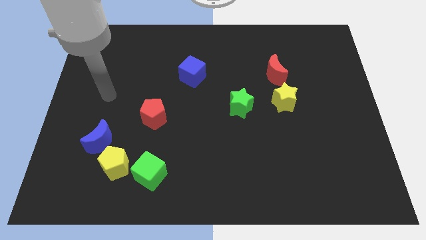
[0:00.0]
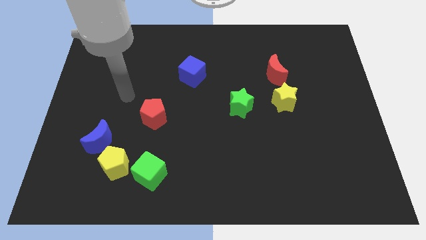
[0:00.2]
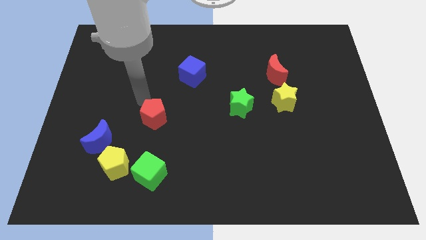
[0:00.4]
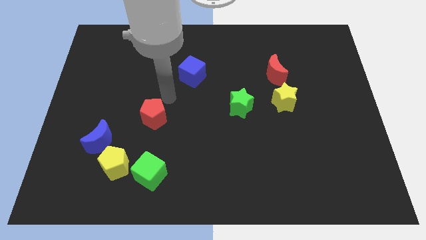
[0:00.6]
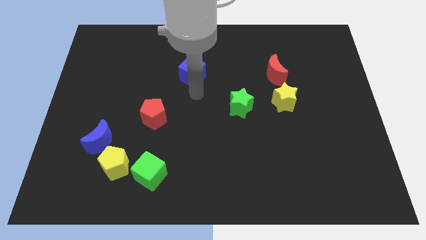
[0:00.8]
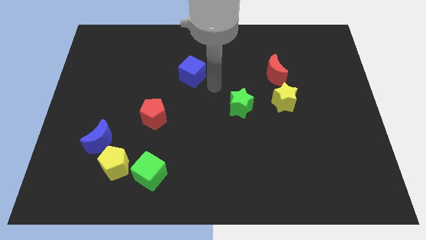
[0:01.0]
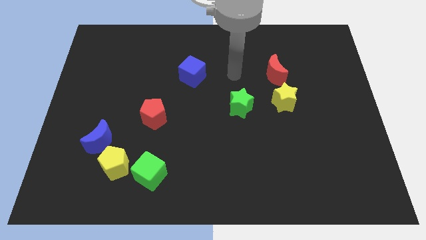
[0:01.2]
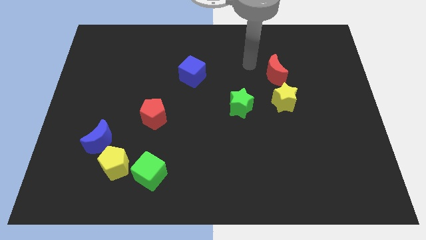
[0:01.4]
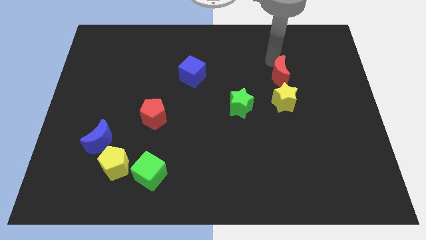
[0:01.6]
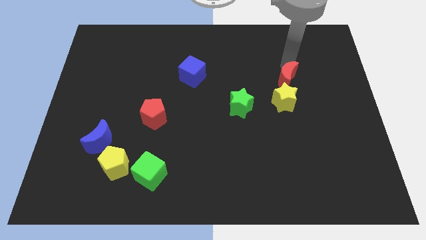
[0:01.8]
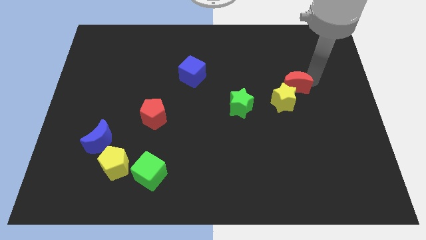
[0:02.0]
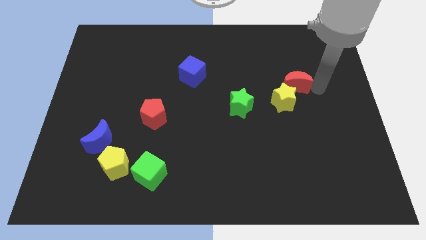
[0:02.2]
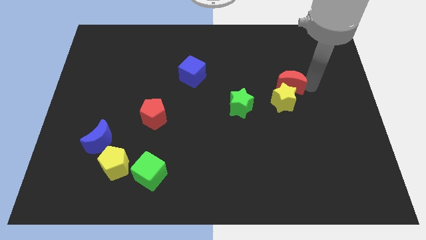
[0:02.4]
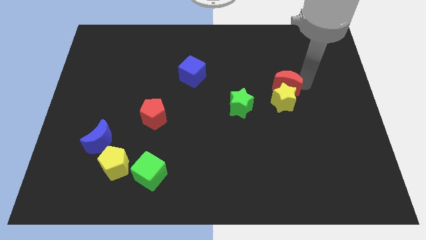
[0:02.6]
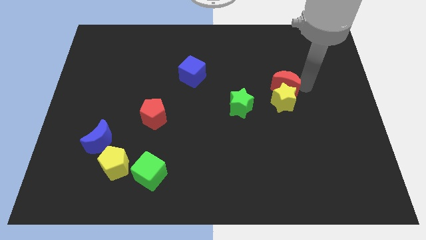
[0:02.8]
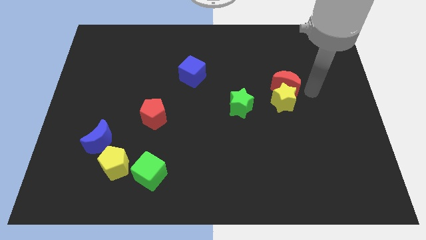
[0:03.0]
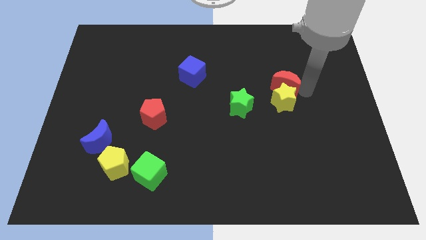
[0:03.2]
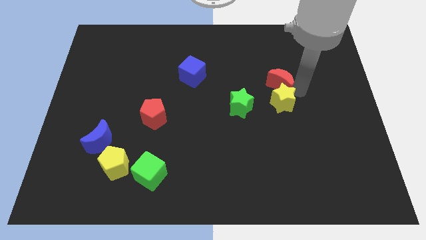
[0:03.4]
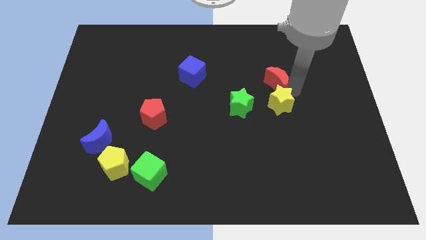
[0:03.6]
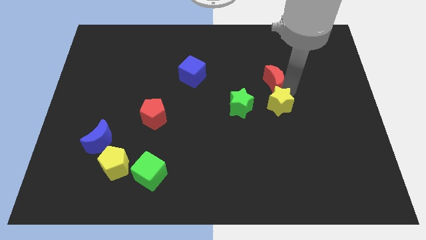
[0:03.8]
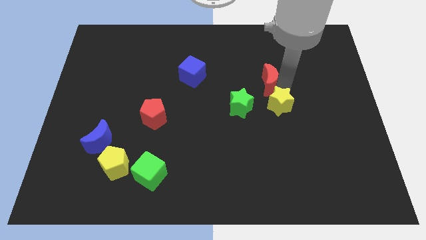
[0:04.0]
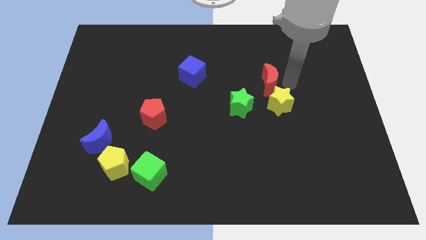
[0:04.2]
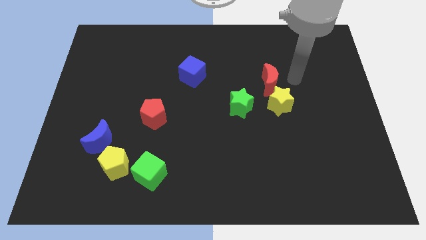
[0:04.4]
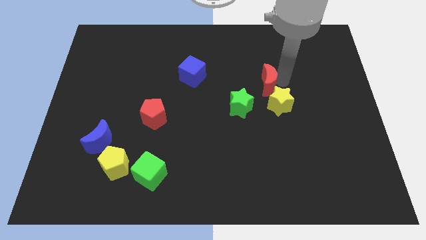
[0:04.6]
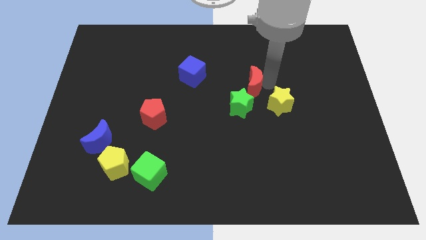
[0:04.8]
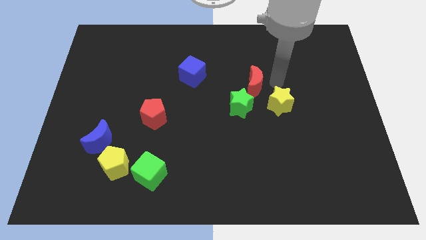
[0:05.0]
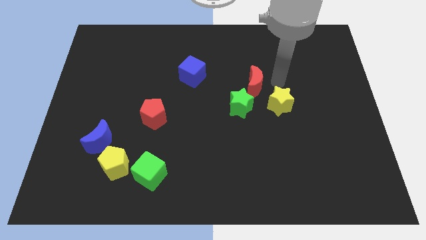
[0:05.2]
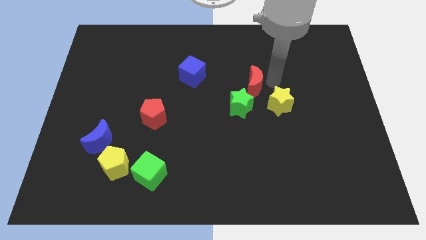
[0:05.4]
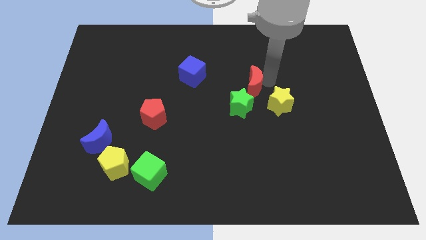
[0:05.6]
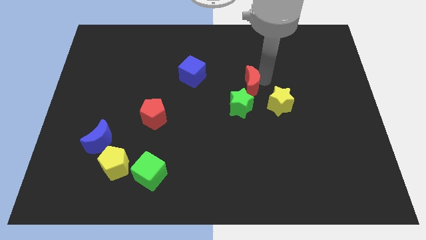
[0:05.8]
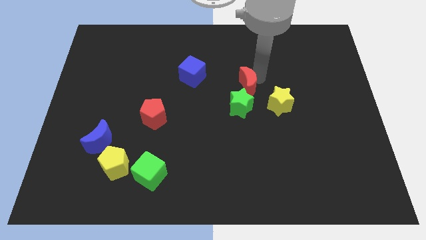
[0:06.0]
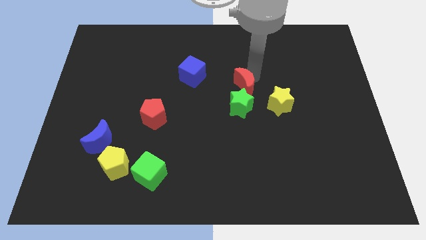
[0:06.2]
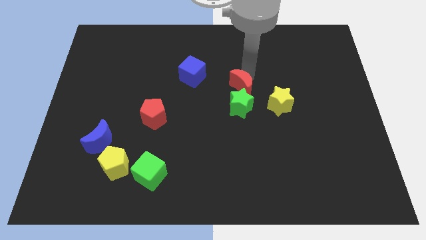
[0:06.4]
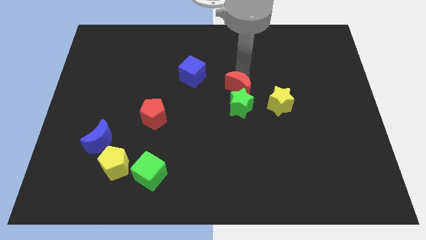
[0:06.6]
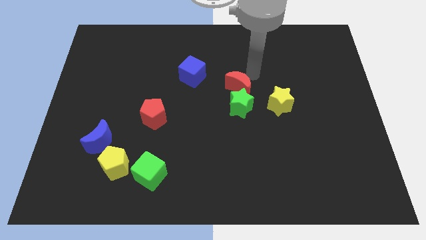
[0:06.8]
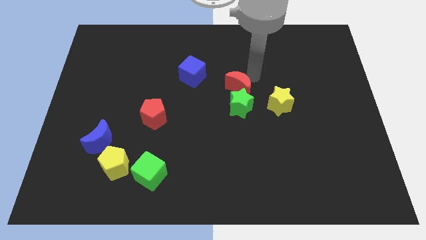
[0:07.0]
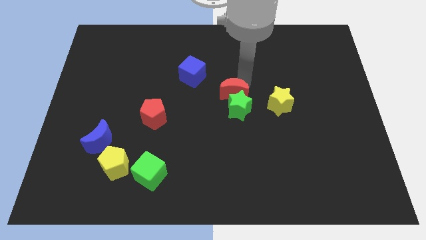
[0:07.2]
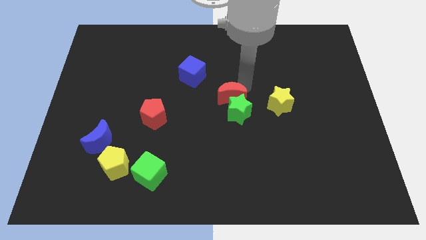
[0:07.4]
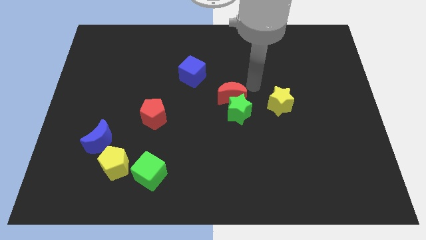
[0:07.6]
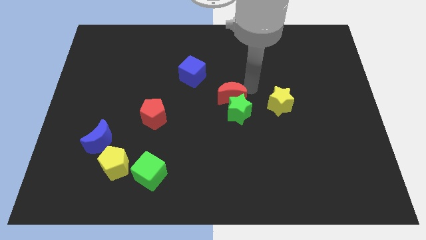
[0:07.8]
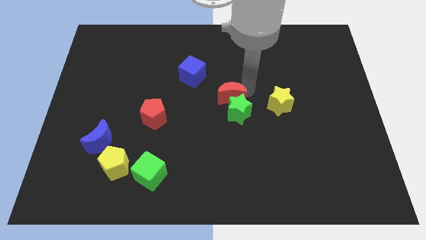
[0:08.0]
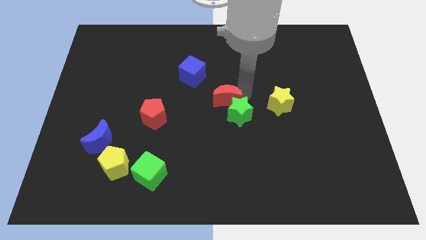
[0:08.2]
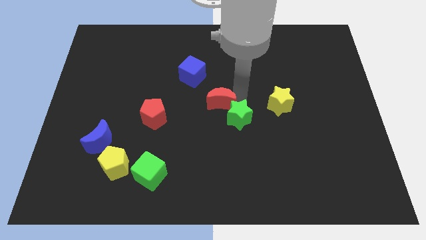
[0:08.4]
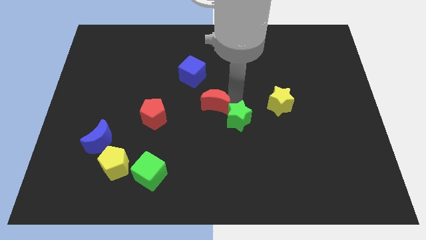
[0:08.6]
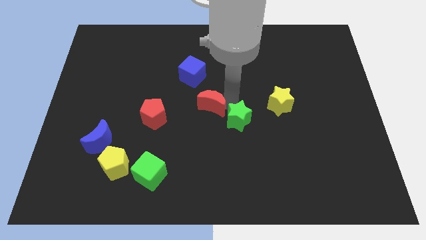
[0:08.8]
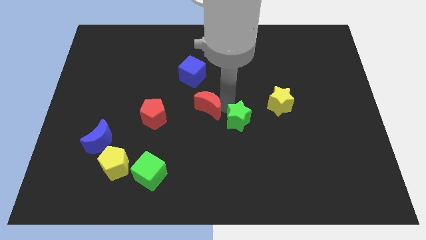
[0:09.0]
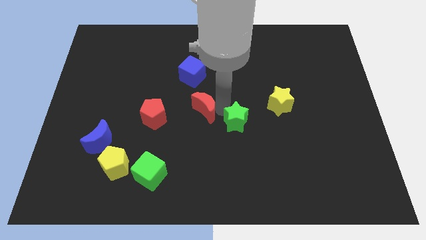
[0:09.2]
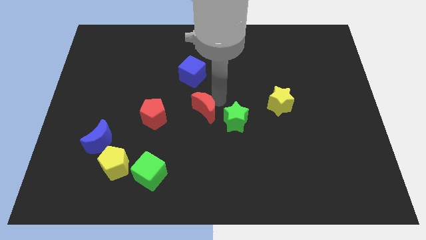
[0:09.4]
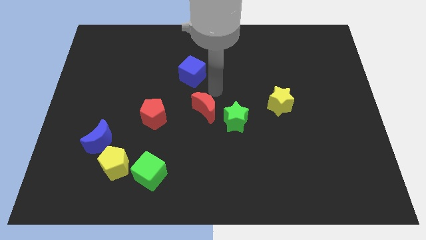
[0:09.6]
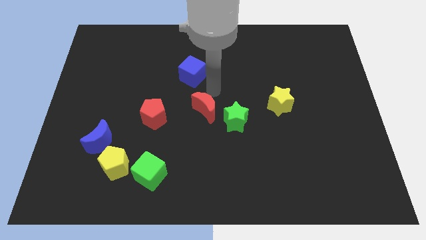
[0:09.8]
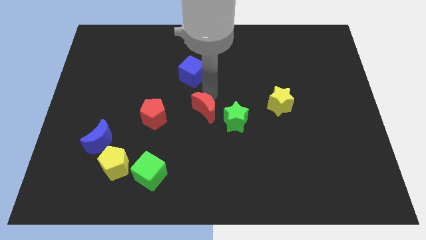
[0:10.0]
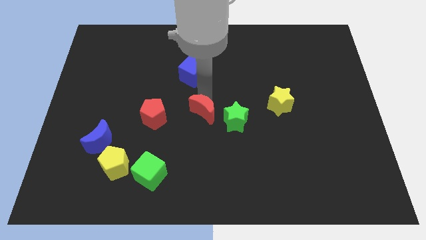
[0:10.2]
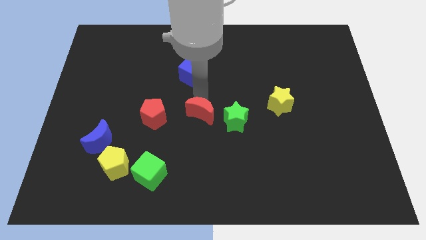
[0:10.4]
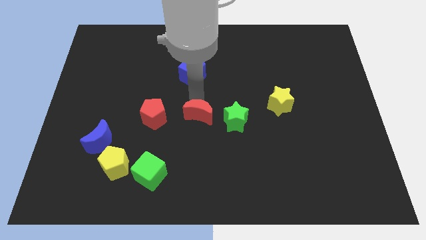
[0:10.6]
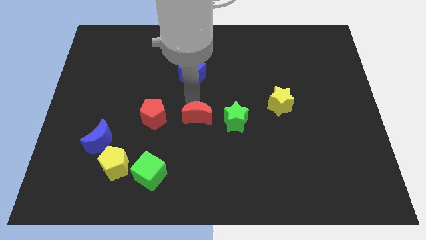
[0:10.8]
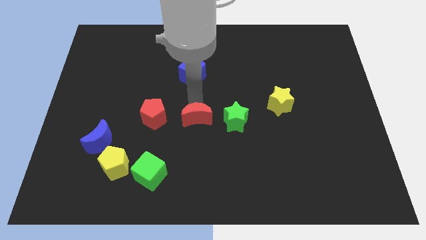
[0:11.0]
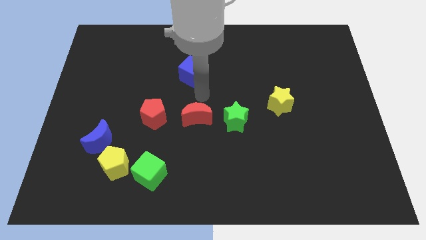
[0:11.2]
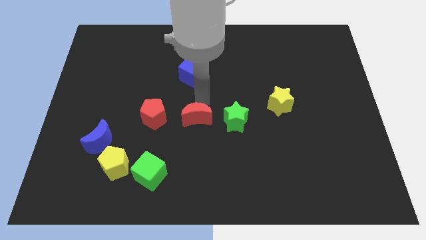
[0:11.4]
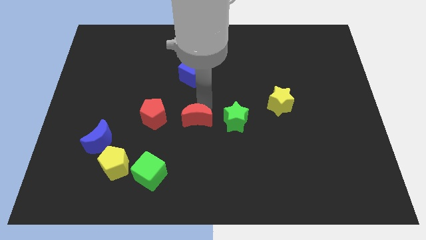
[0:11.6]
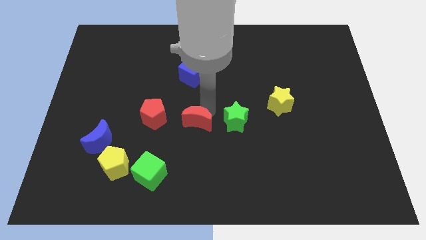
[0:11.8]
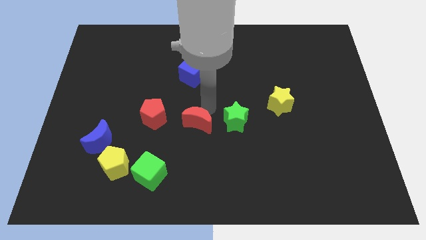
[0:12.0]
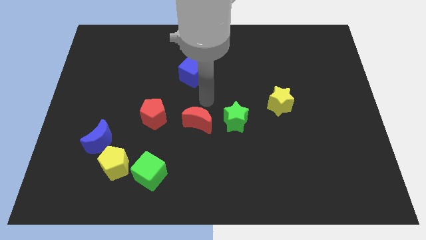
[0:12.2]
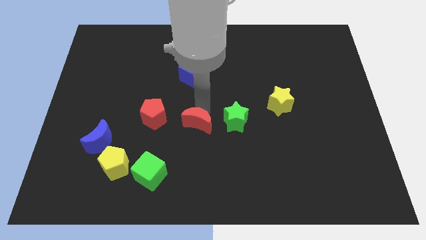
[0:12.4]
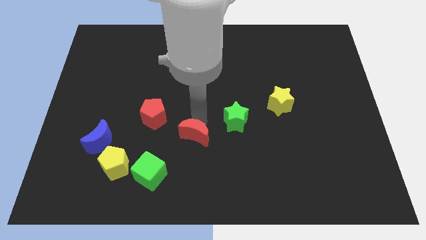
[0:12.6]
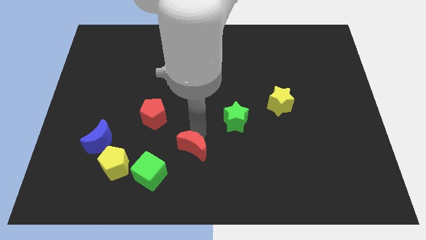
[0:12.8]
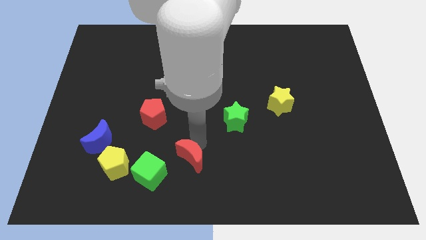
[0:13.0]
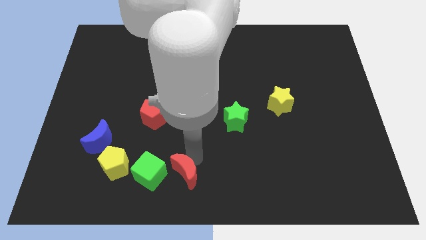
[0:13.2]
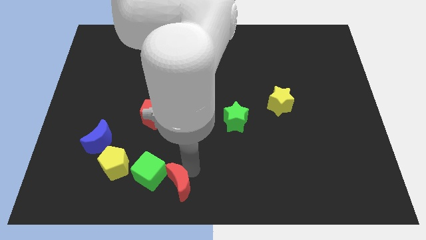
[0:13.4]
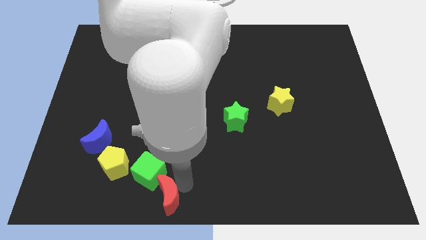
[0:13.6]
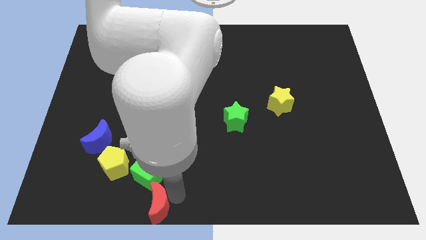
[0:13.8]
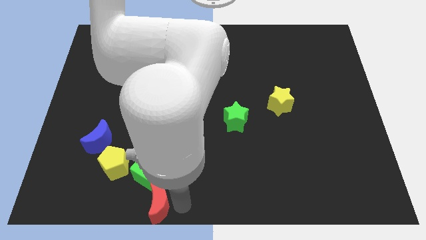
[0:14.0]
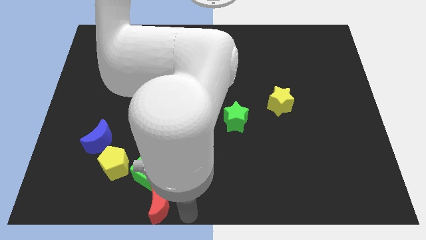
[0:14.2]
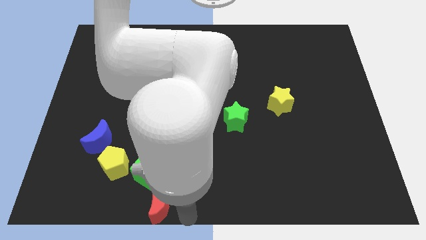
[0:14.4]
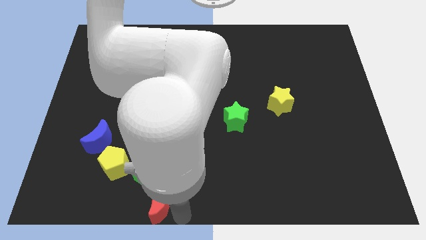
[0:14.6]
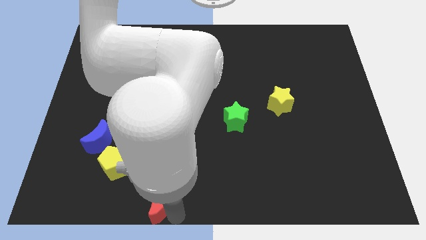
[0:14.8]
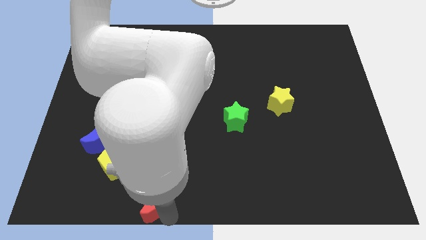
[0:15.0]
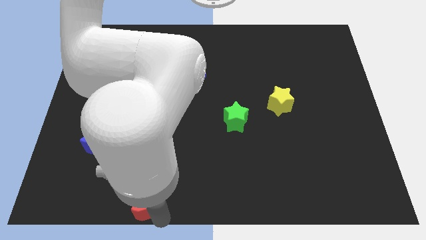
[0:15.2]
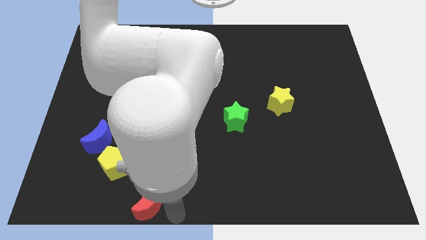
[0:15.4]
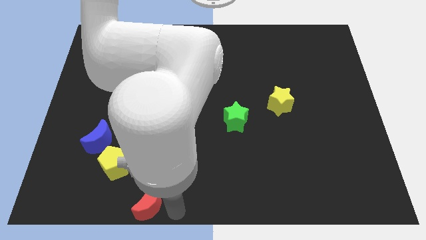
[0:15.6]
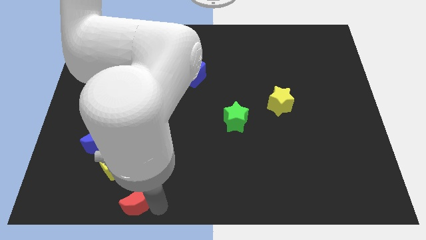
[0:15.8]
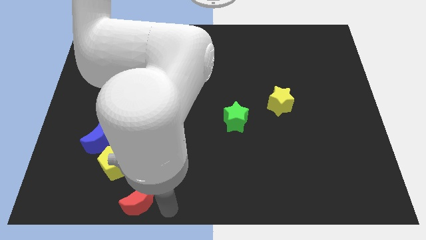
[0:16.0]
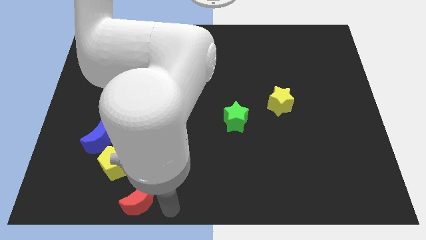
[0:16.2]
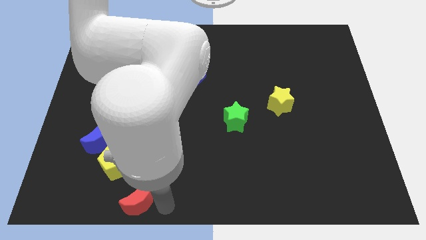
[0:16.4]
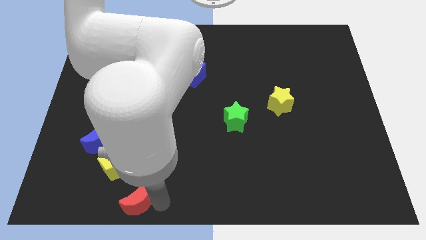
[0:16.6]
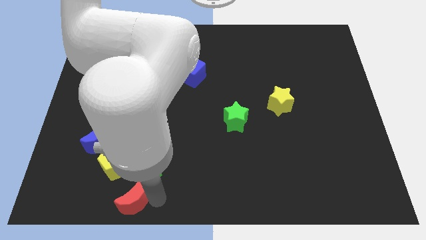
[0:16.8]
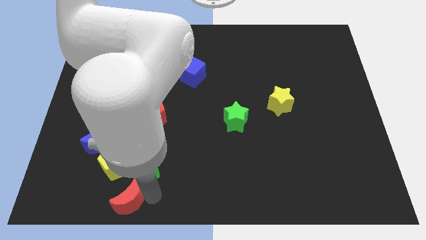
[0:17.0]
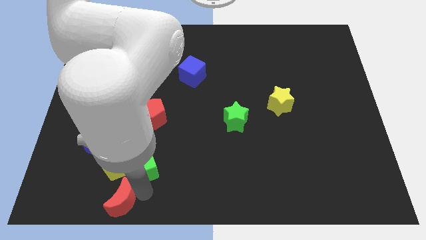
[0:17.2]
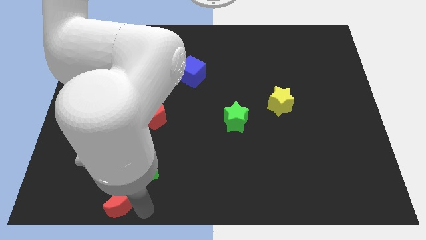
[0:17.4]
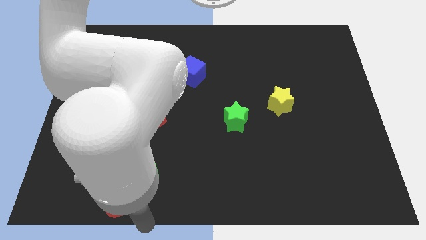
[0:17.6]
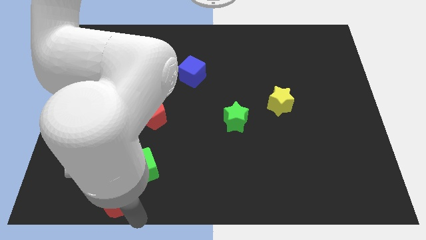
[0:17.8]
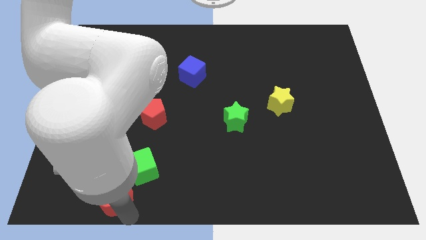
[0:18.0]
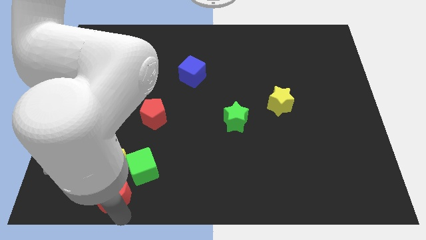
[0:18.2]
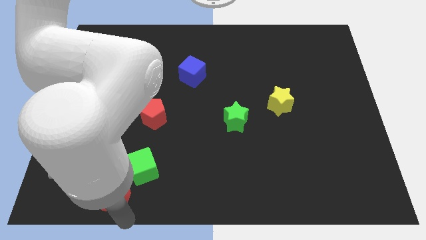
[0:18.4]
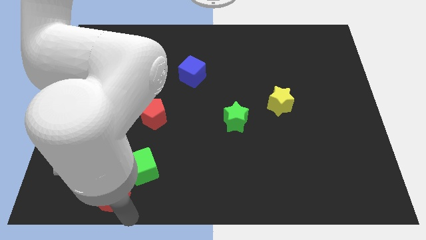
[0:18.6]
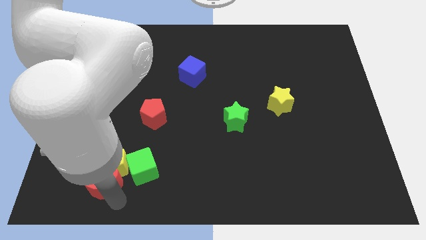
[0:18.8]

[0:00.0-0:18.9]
slide the red moon to the left of the green cube
